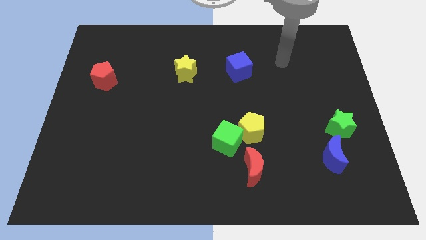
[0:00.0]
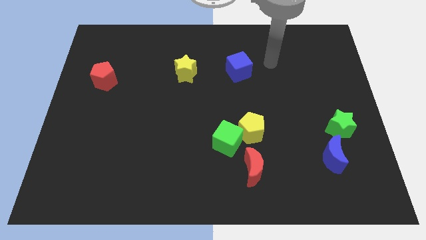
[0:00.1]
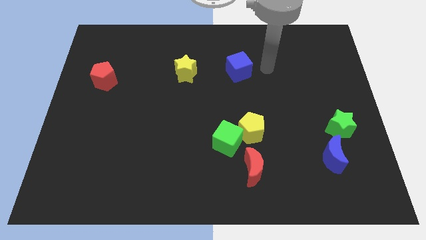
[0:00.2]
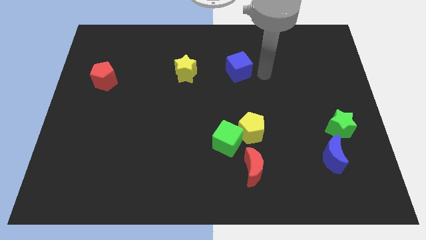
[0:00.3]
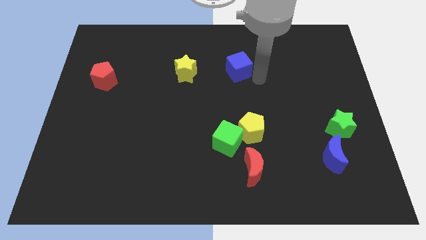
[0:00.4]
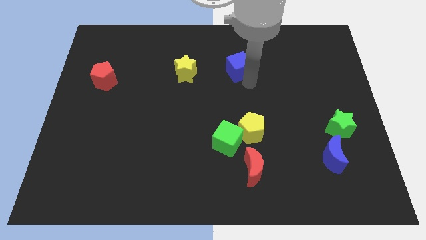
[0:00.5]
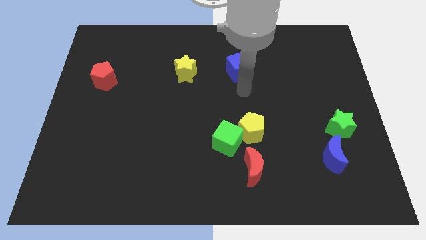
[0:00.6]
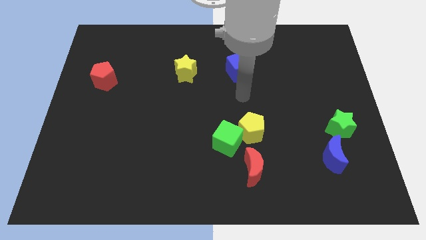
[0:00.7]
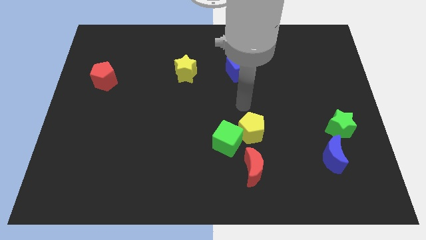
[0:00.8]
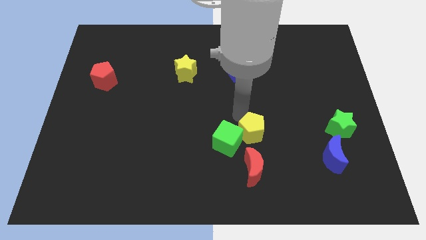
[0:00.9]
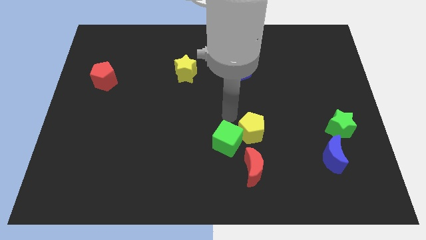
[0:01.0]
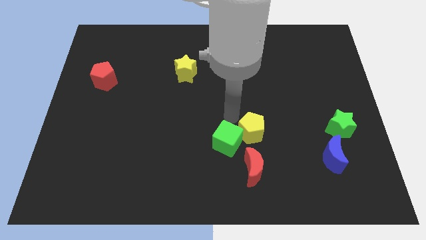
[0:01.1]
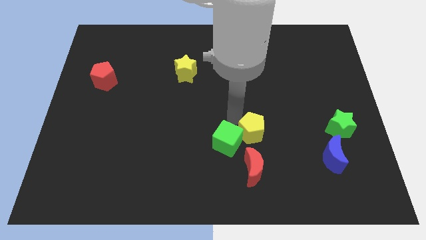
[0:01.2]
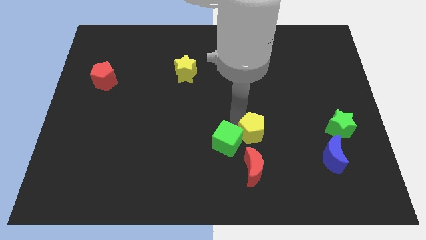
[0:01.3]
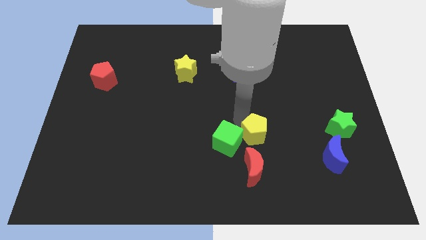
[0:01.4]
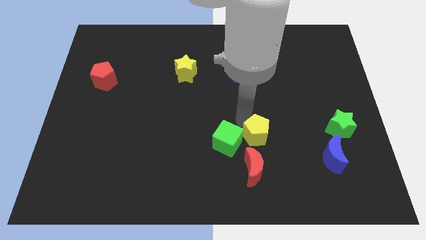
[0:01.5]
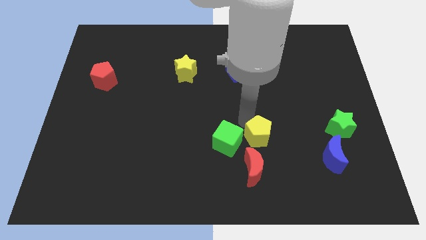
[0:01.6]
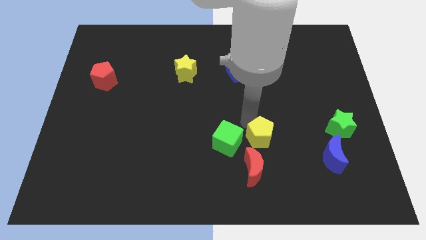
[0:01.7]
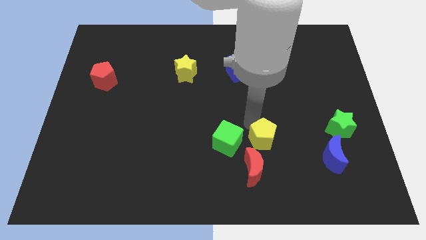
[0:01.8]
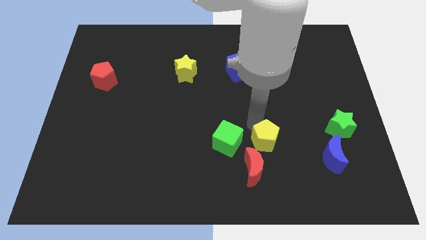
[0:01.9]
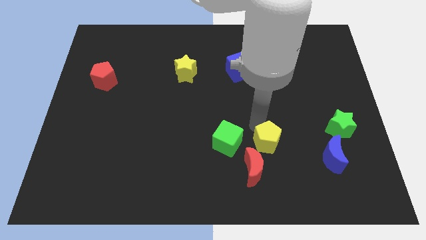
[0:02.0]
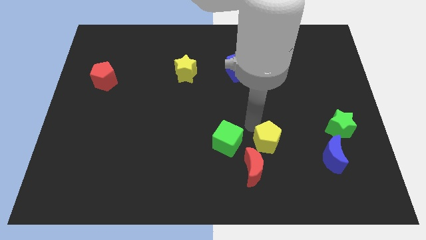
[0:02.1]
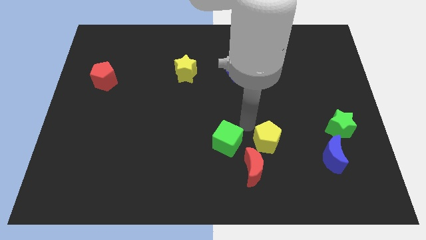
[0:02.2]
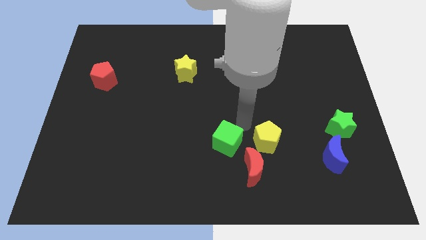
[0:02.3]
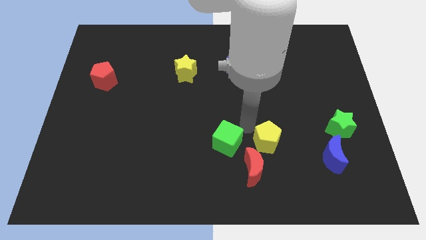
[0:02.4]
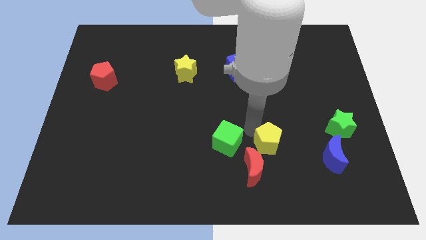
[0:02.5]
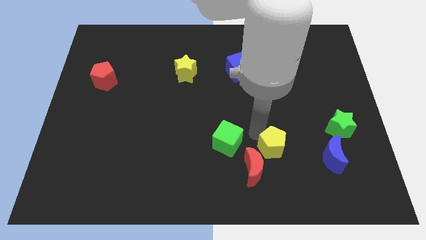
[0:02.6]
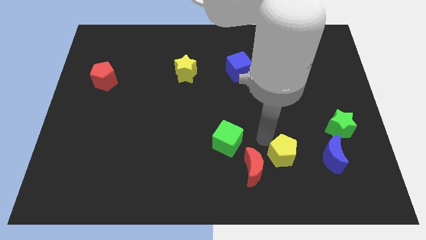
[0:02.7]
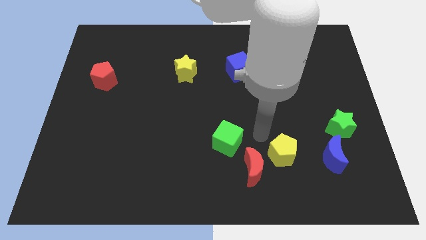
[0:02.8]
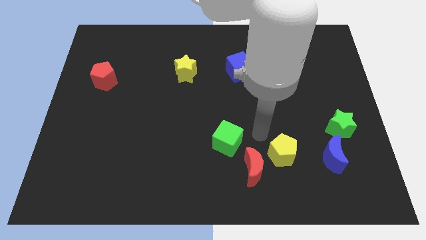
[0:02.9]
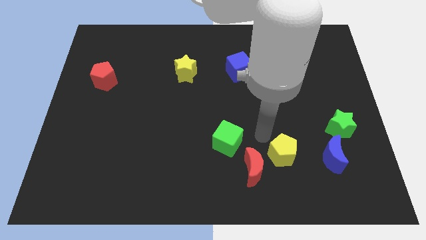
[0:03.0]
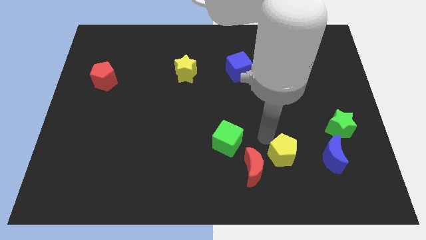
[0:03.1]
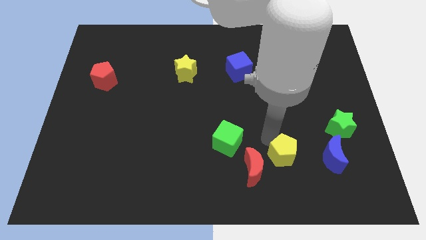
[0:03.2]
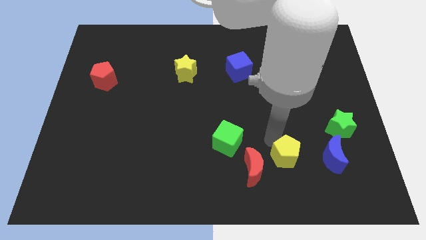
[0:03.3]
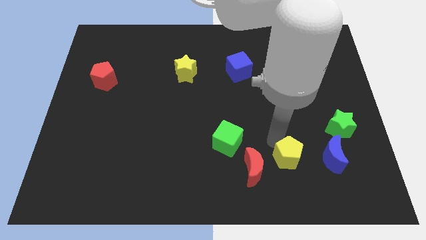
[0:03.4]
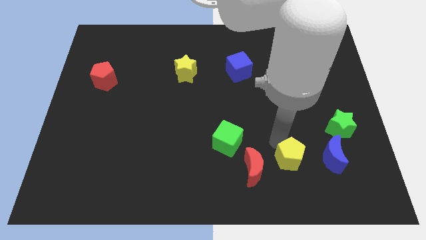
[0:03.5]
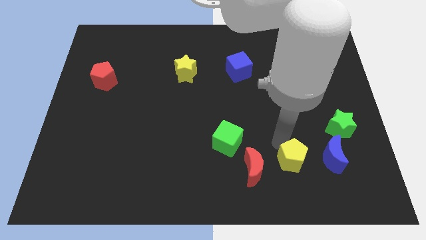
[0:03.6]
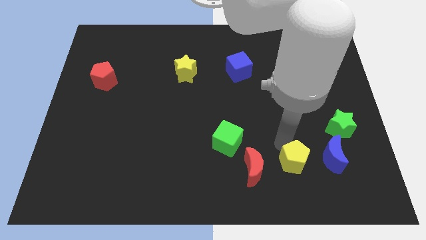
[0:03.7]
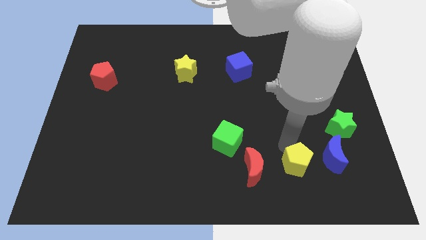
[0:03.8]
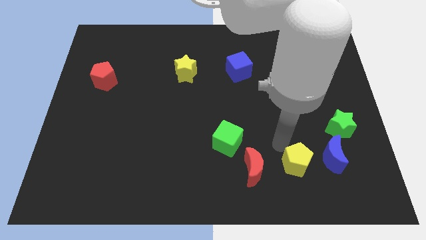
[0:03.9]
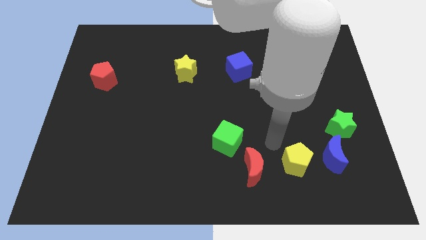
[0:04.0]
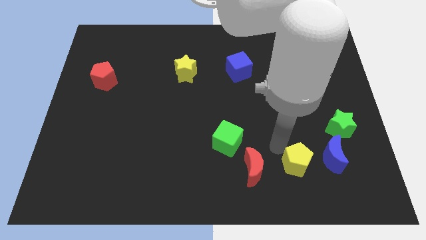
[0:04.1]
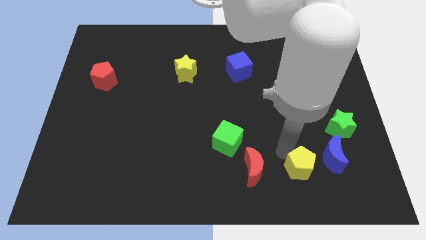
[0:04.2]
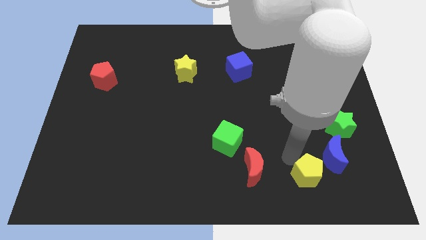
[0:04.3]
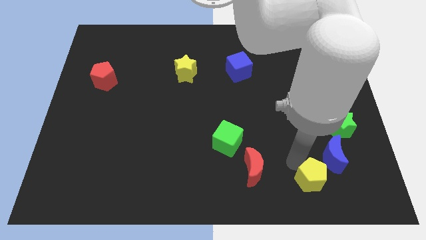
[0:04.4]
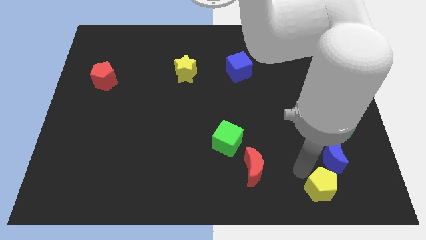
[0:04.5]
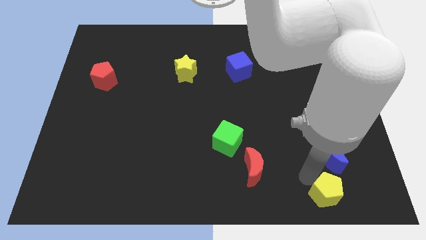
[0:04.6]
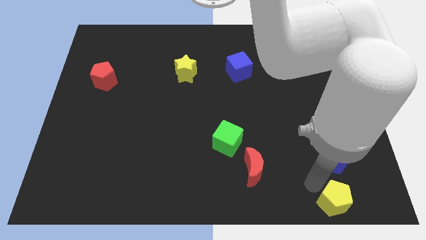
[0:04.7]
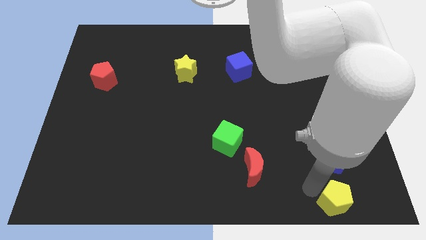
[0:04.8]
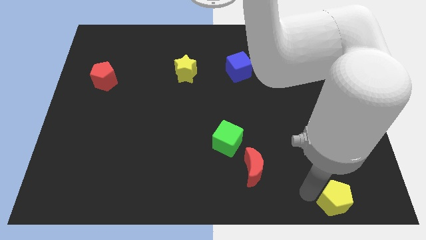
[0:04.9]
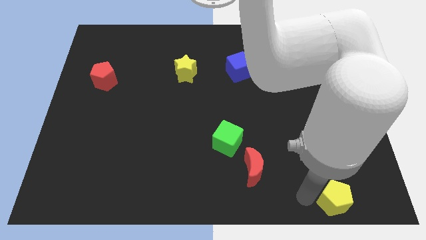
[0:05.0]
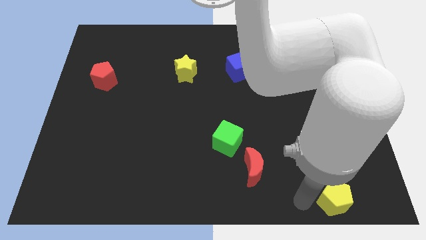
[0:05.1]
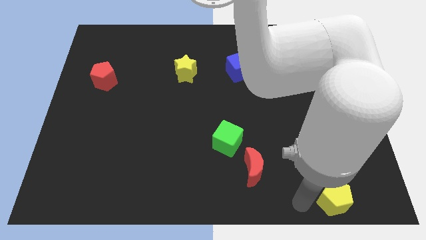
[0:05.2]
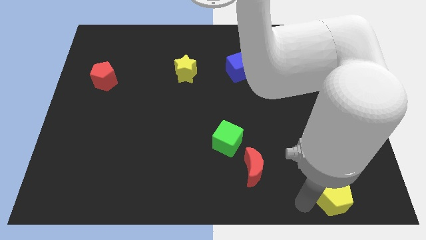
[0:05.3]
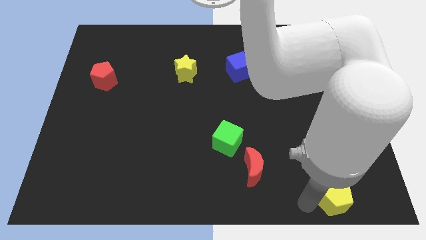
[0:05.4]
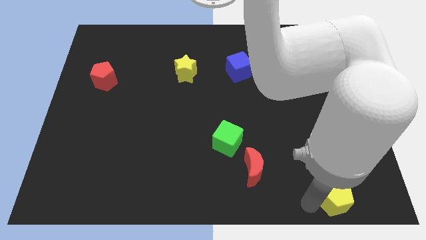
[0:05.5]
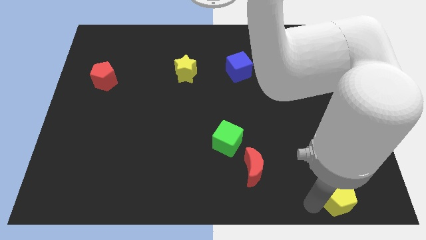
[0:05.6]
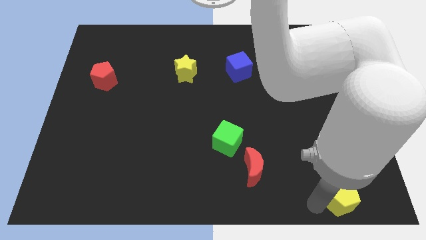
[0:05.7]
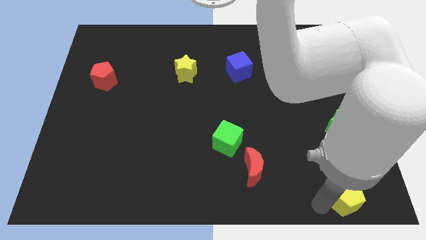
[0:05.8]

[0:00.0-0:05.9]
push the yellow pentagon to the bottom right corner
